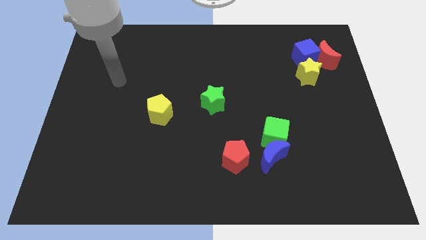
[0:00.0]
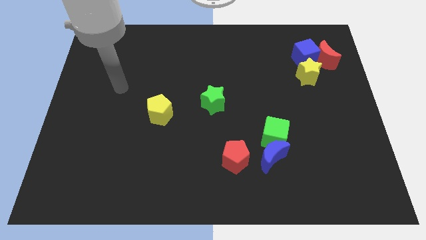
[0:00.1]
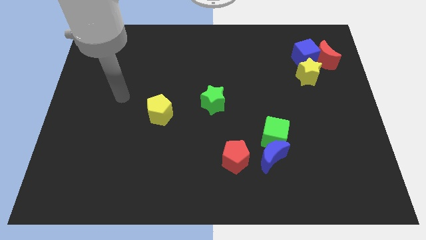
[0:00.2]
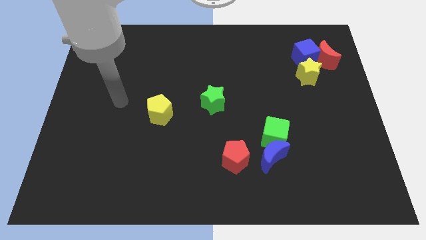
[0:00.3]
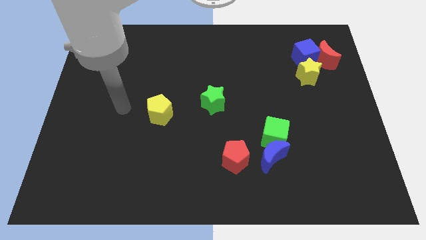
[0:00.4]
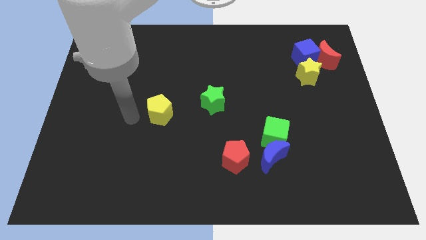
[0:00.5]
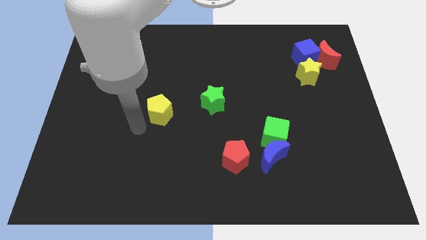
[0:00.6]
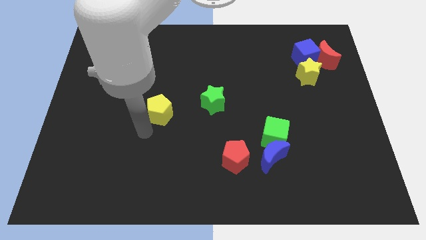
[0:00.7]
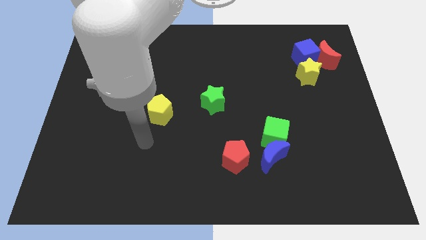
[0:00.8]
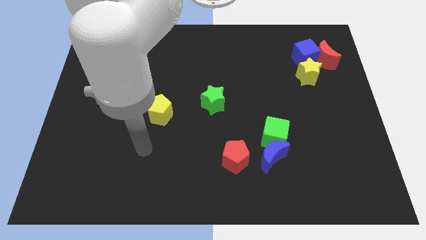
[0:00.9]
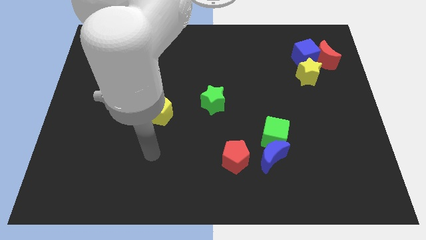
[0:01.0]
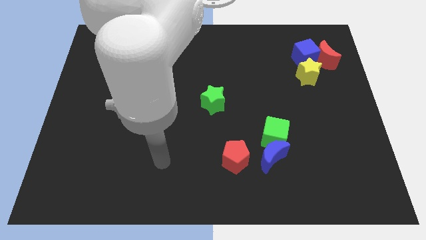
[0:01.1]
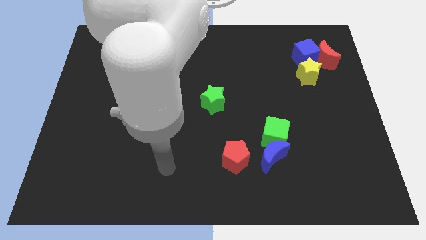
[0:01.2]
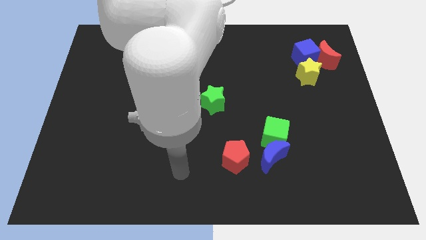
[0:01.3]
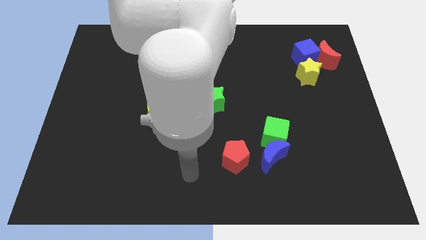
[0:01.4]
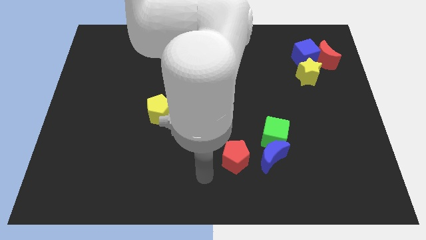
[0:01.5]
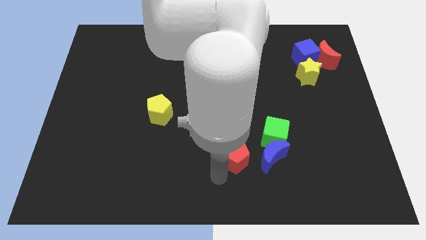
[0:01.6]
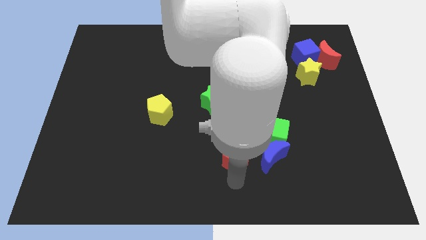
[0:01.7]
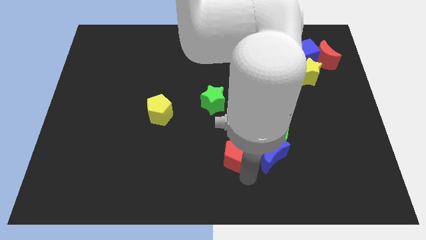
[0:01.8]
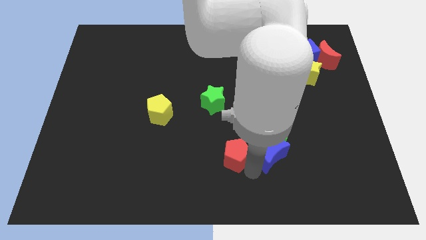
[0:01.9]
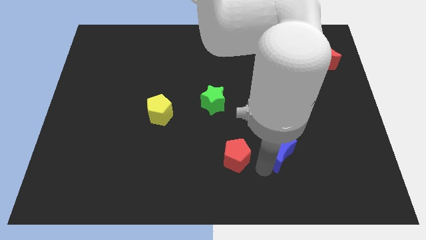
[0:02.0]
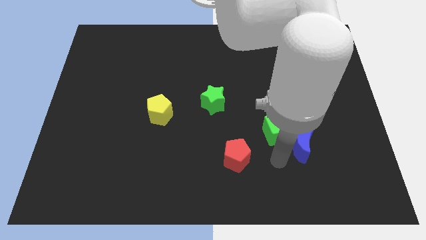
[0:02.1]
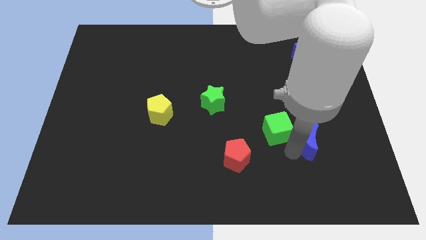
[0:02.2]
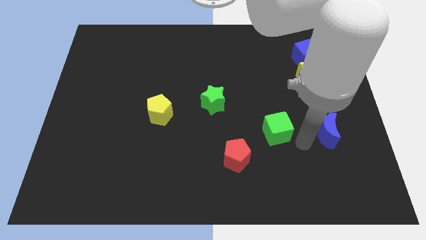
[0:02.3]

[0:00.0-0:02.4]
pull the green cube apart from the blue moon

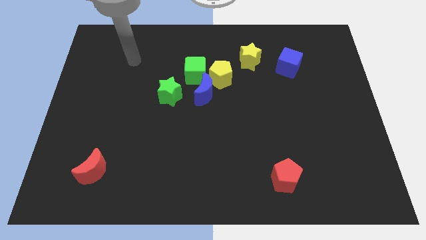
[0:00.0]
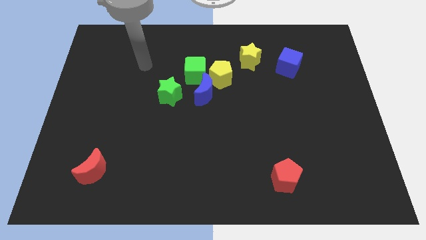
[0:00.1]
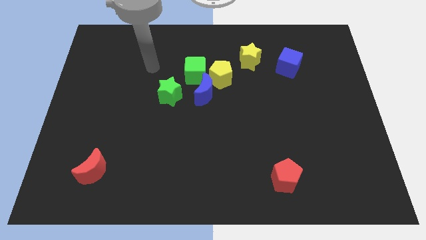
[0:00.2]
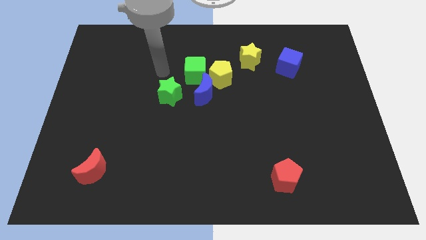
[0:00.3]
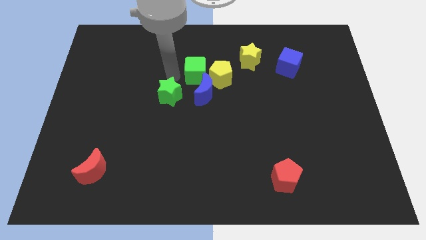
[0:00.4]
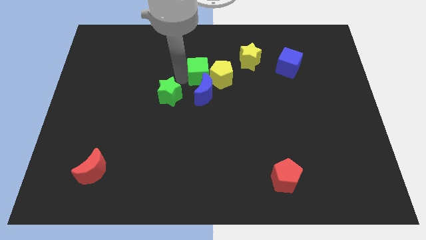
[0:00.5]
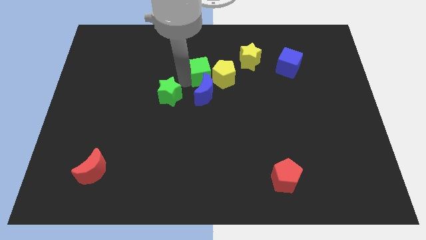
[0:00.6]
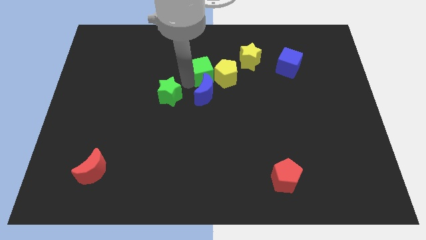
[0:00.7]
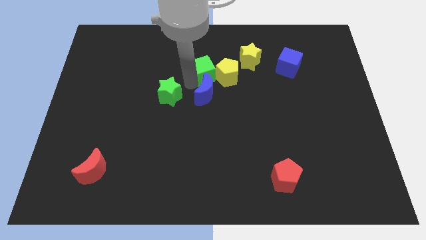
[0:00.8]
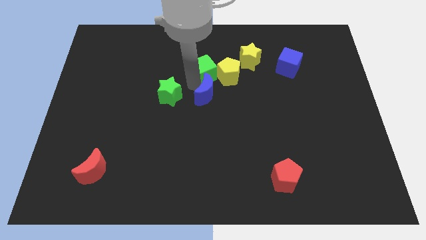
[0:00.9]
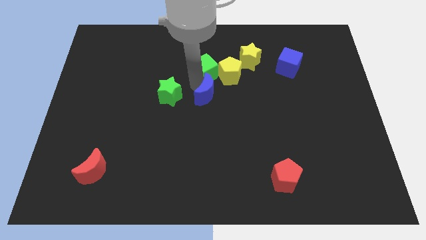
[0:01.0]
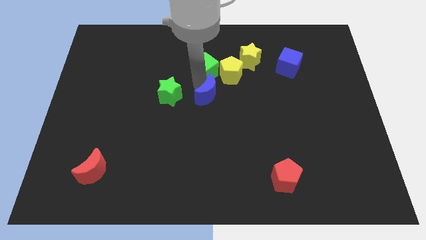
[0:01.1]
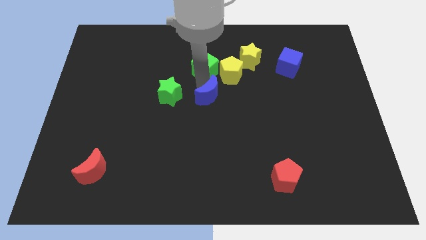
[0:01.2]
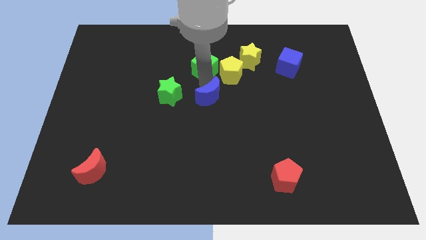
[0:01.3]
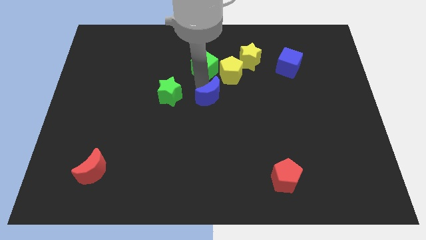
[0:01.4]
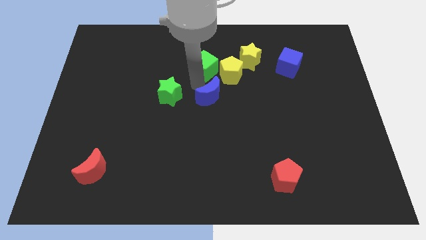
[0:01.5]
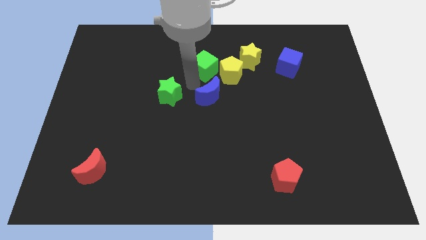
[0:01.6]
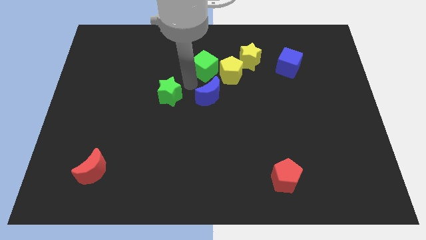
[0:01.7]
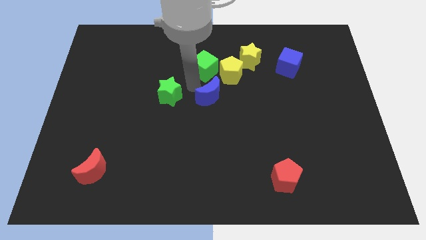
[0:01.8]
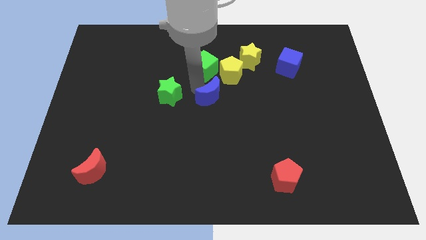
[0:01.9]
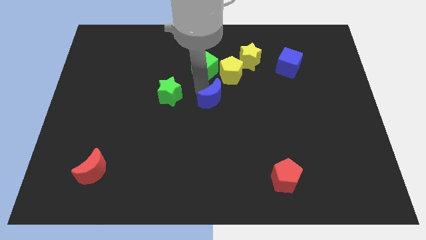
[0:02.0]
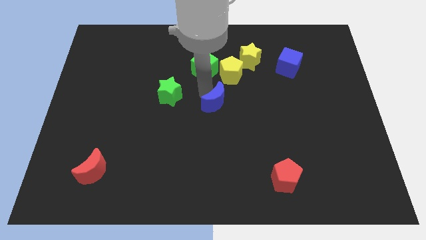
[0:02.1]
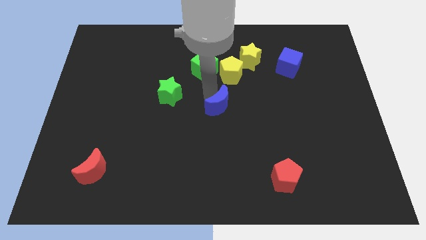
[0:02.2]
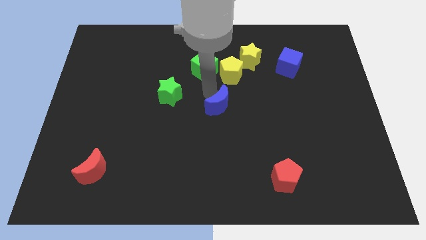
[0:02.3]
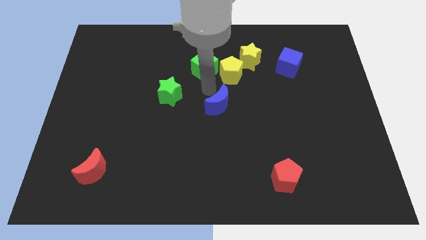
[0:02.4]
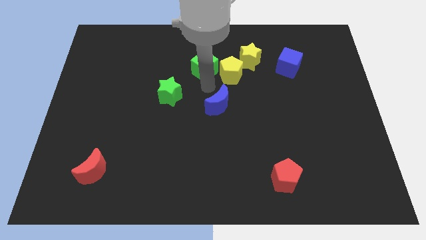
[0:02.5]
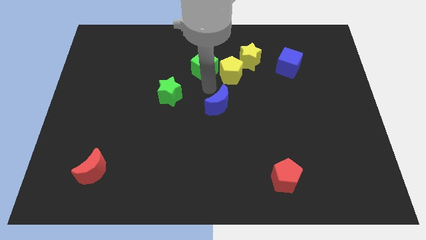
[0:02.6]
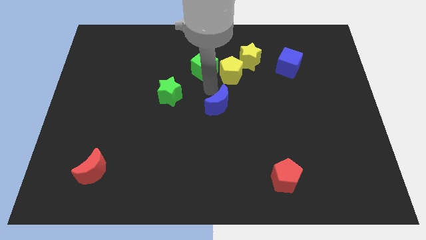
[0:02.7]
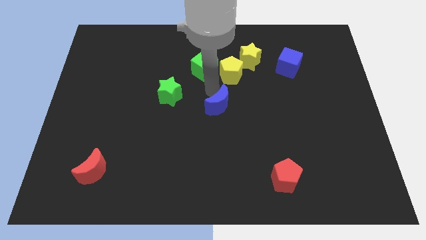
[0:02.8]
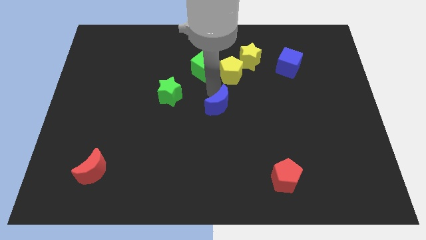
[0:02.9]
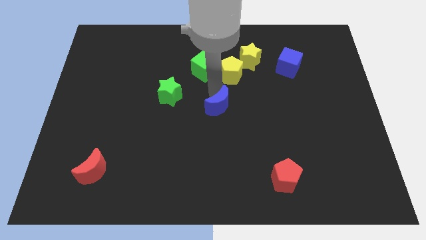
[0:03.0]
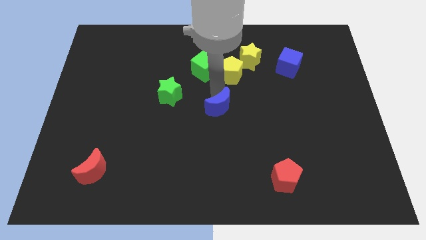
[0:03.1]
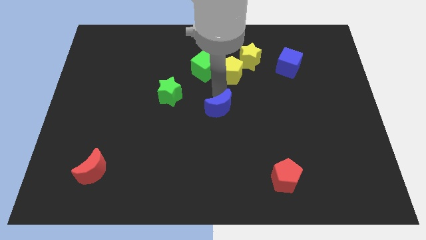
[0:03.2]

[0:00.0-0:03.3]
move the blue moon away from the group

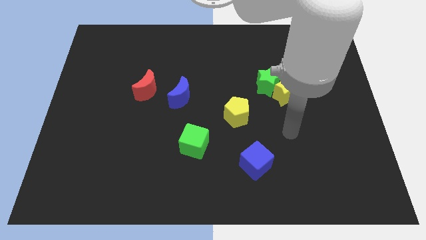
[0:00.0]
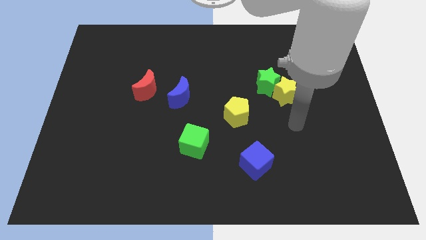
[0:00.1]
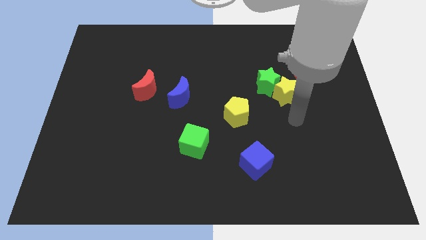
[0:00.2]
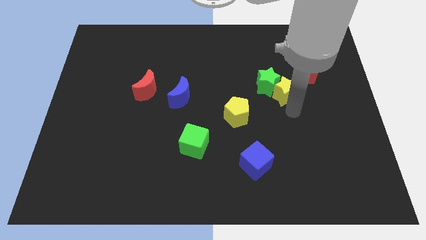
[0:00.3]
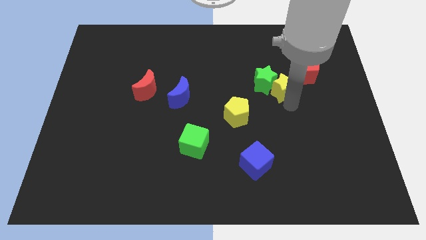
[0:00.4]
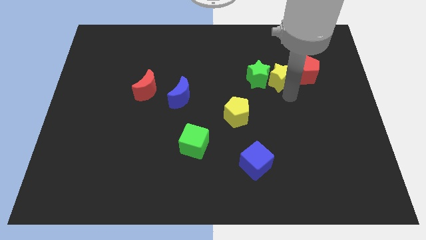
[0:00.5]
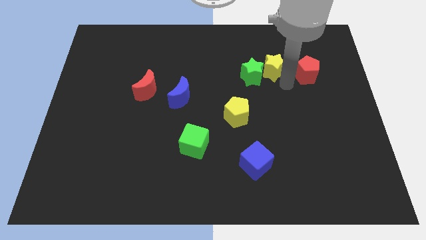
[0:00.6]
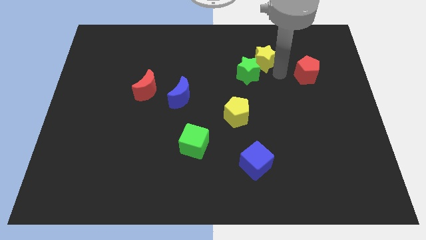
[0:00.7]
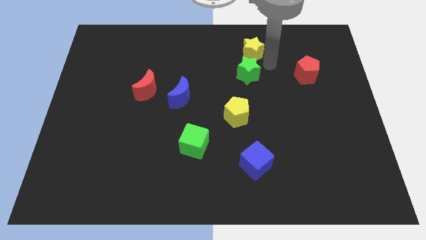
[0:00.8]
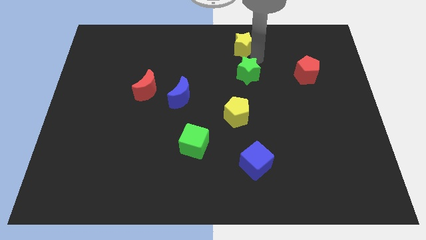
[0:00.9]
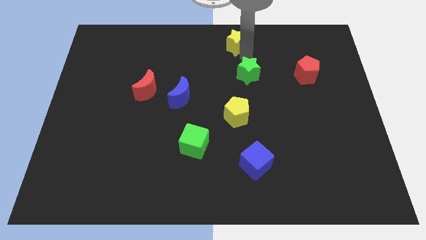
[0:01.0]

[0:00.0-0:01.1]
move the green star away from the yellow star

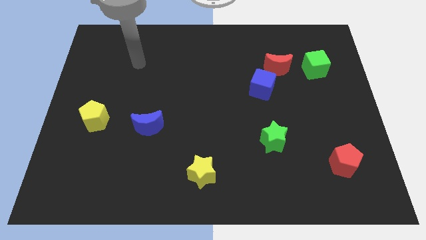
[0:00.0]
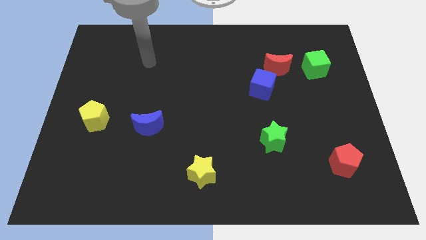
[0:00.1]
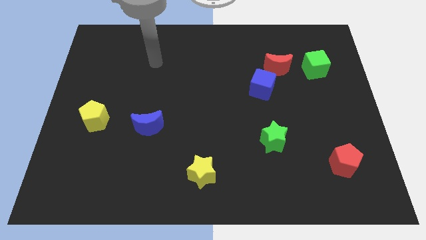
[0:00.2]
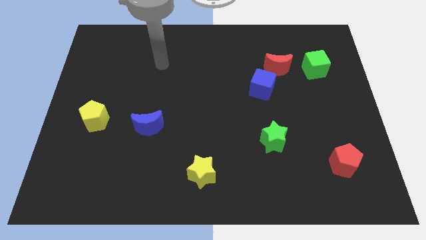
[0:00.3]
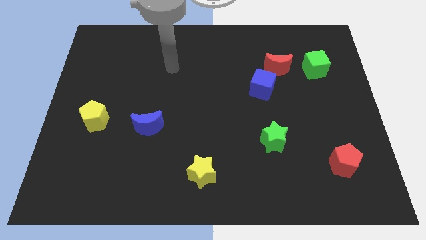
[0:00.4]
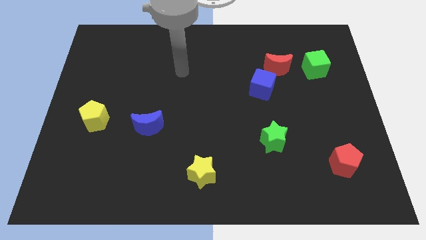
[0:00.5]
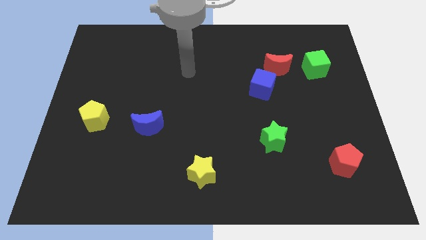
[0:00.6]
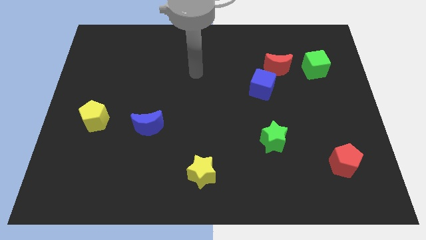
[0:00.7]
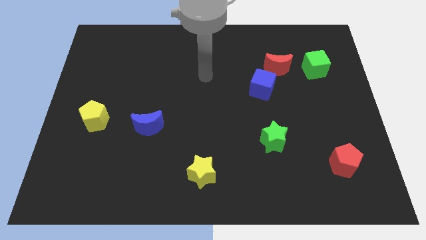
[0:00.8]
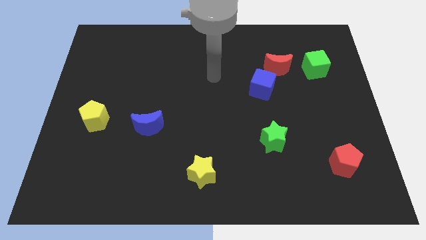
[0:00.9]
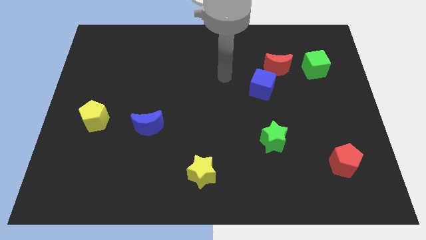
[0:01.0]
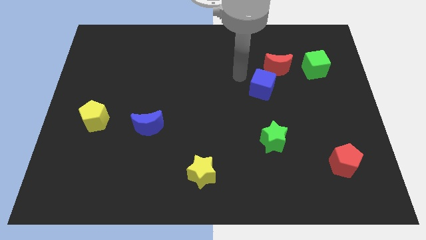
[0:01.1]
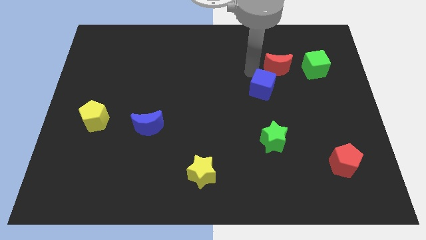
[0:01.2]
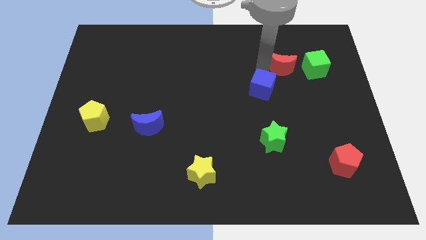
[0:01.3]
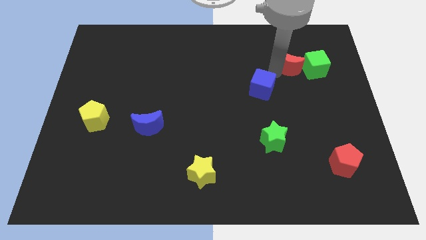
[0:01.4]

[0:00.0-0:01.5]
pull the blue cube apart from the red moon

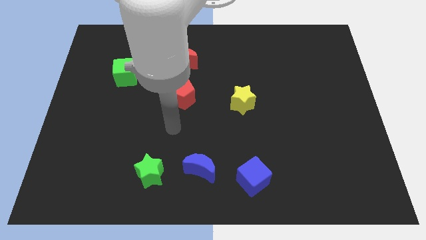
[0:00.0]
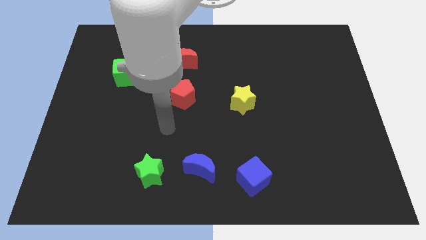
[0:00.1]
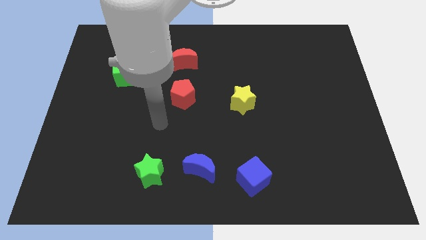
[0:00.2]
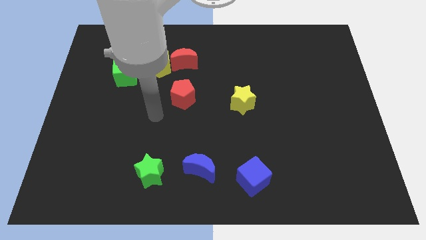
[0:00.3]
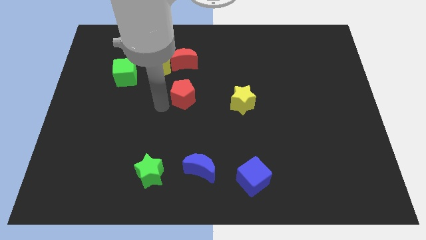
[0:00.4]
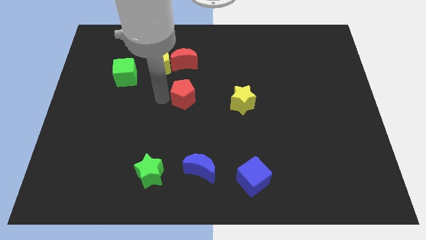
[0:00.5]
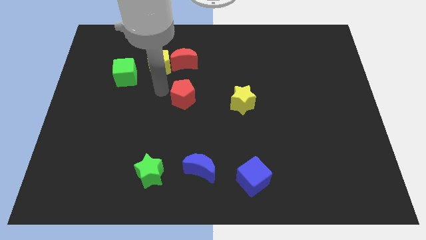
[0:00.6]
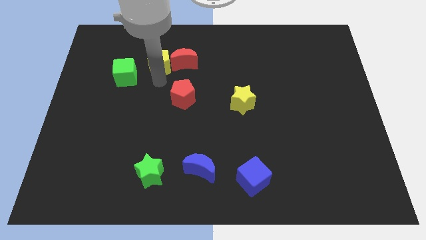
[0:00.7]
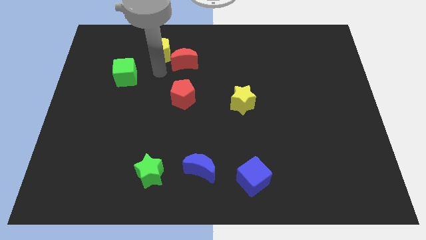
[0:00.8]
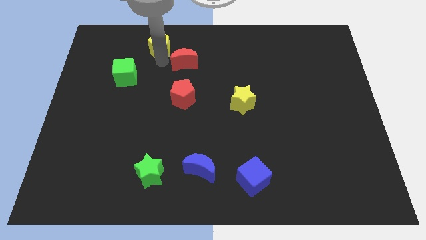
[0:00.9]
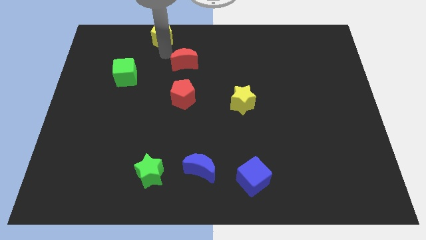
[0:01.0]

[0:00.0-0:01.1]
separate the red moon from the yellow pentagon

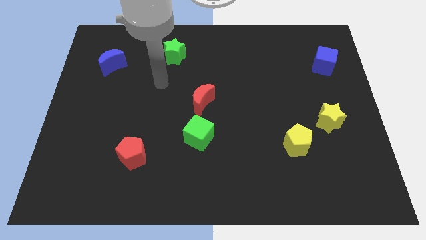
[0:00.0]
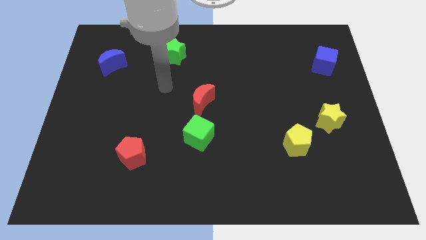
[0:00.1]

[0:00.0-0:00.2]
separate the red moon from the green cube
